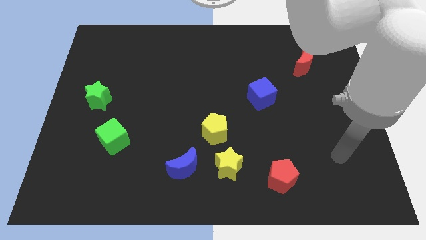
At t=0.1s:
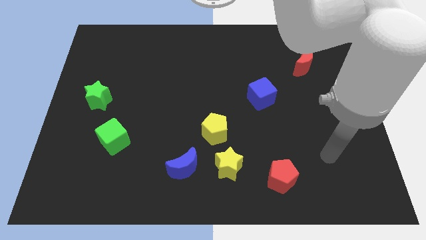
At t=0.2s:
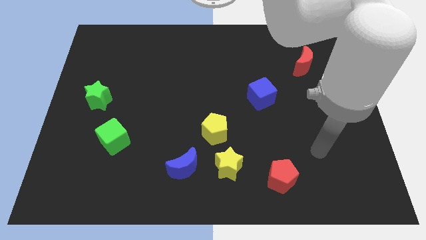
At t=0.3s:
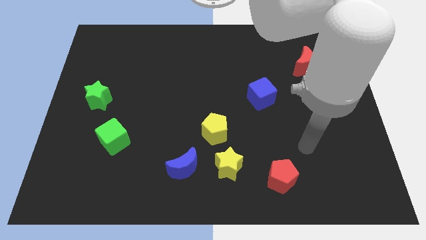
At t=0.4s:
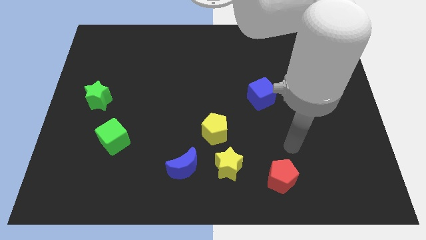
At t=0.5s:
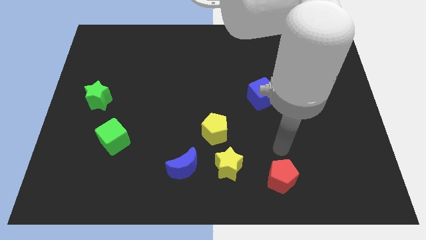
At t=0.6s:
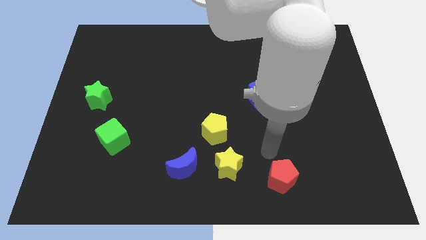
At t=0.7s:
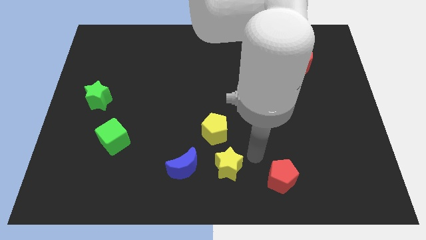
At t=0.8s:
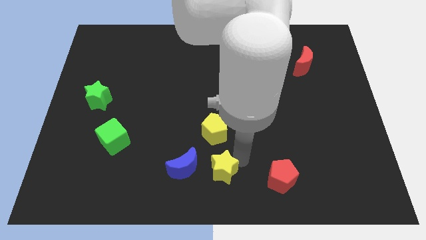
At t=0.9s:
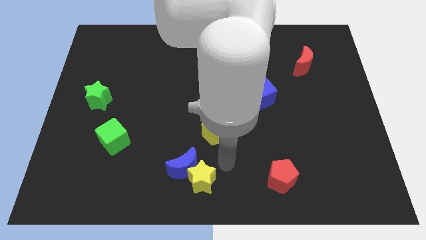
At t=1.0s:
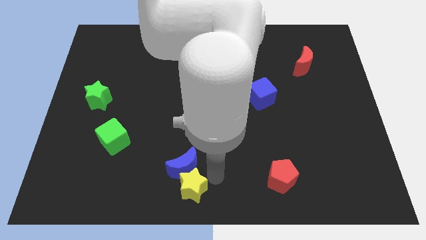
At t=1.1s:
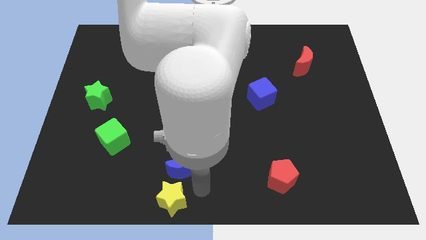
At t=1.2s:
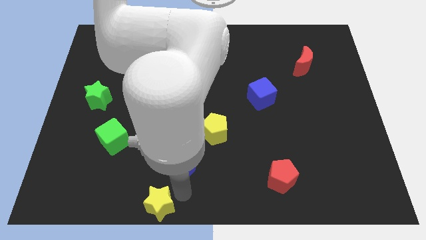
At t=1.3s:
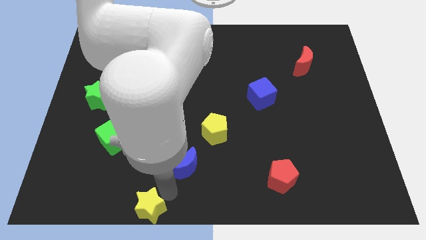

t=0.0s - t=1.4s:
separate the blue moon from the yellow star

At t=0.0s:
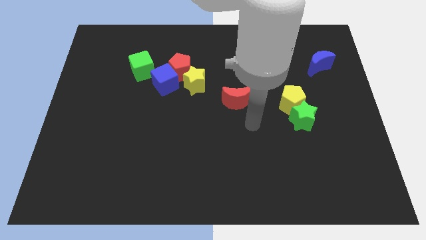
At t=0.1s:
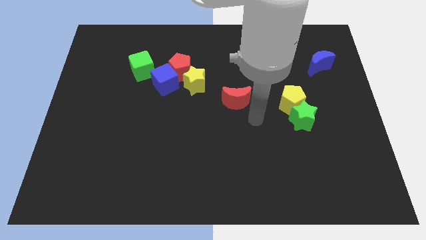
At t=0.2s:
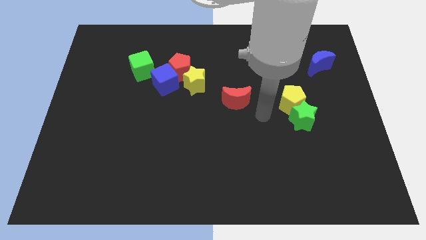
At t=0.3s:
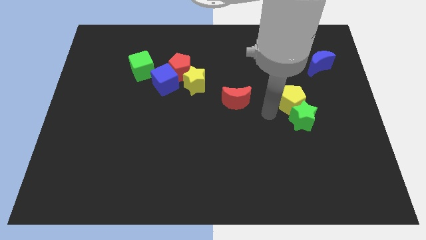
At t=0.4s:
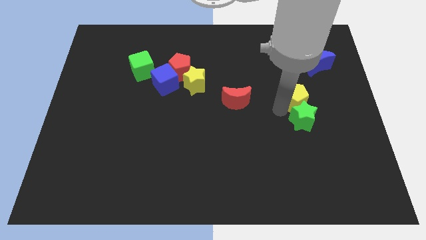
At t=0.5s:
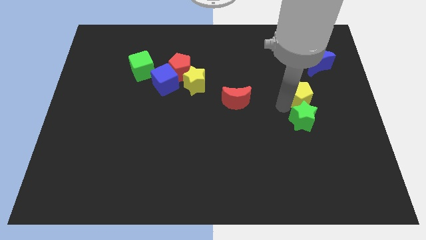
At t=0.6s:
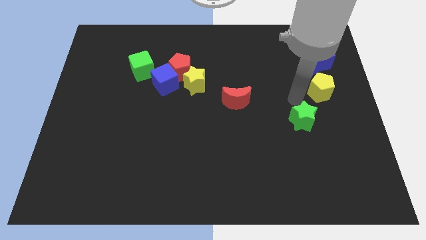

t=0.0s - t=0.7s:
pull the green star apart from the yellow pentagon

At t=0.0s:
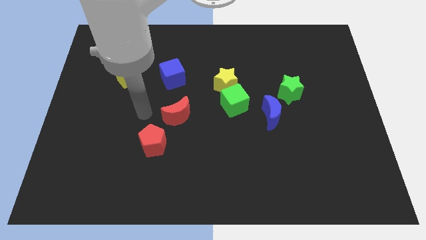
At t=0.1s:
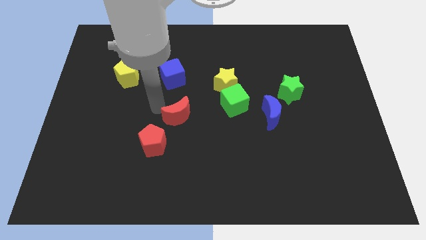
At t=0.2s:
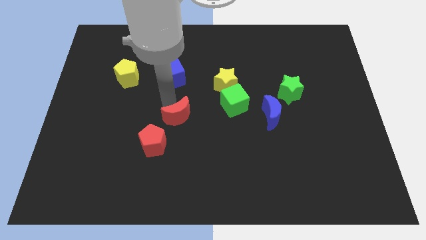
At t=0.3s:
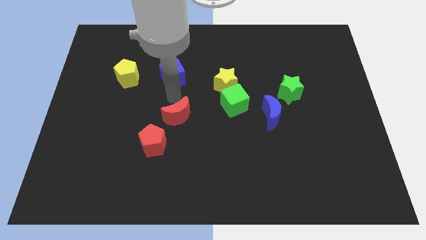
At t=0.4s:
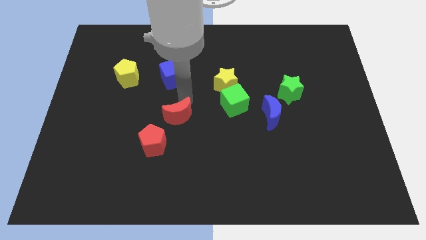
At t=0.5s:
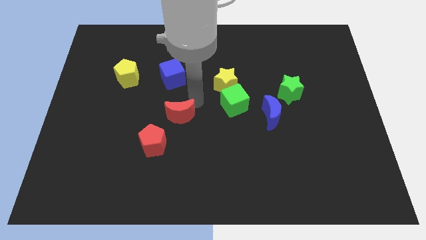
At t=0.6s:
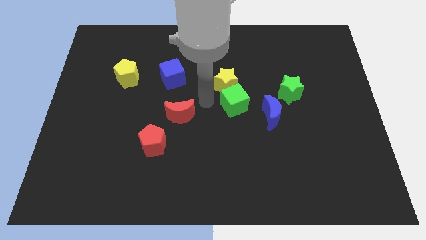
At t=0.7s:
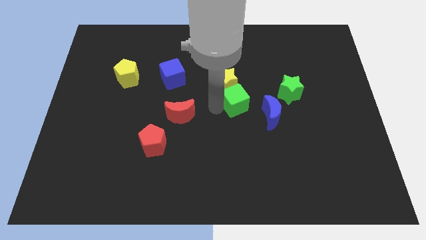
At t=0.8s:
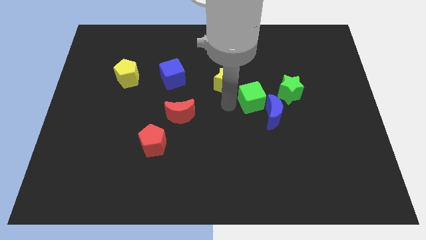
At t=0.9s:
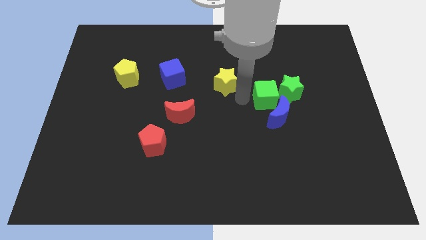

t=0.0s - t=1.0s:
pull the yellow star apart from the green cube

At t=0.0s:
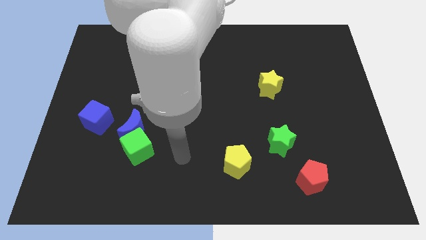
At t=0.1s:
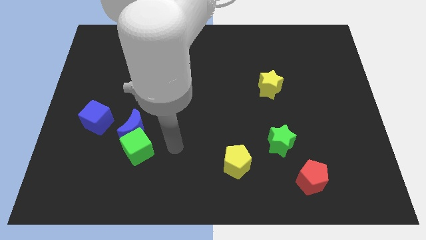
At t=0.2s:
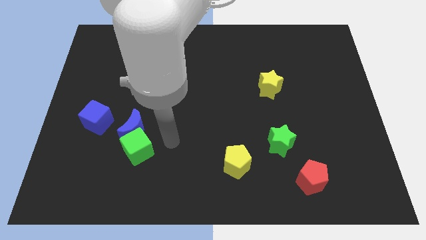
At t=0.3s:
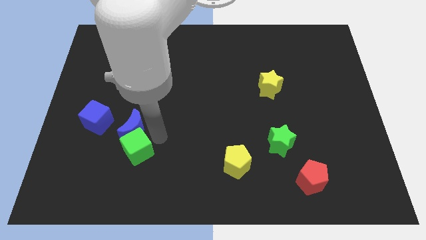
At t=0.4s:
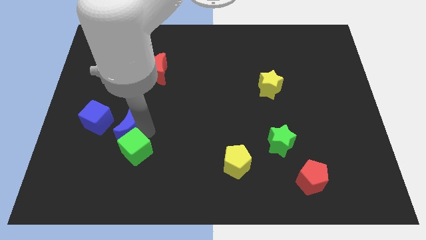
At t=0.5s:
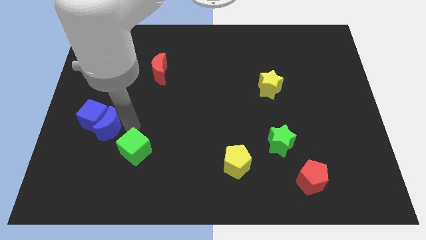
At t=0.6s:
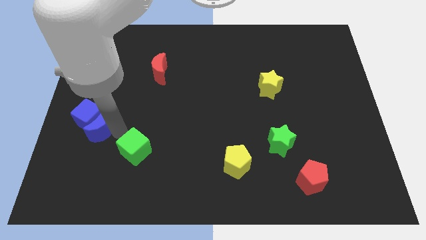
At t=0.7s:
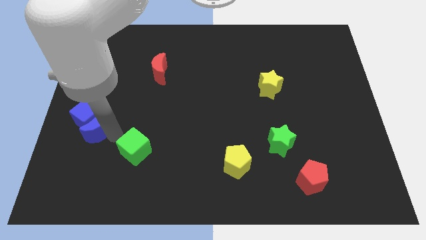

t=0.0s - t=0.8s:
move the green cube away from the blue moon

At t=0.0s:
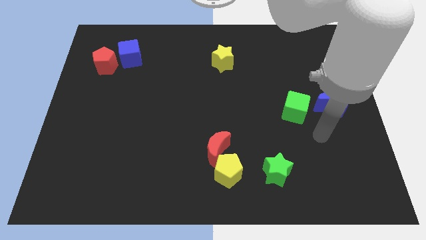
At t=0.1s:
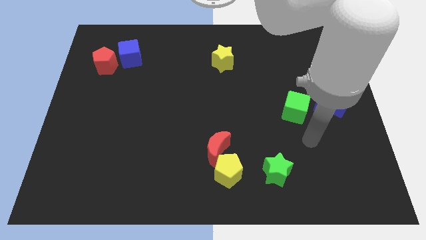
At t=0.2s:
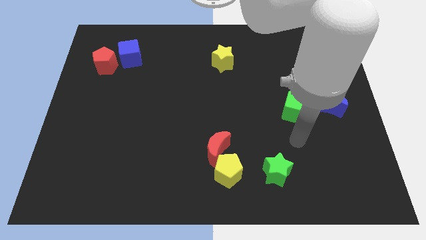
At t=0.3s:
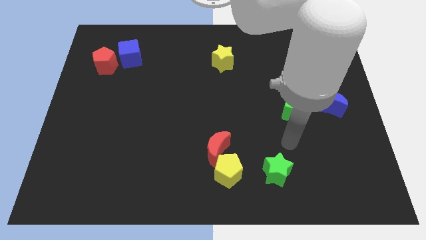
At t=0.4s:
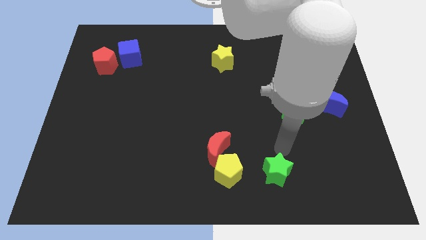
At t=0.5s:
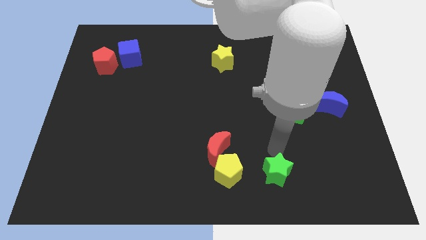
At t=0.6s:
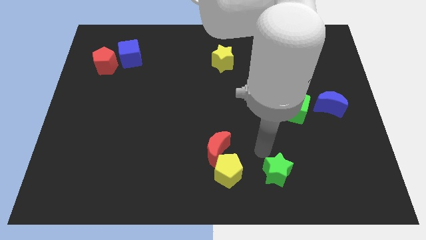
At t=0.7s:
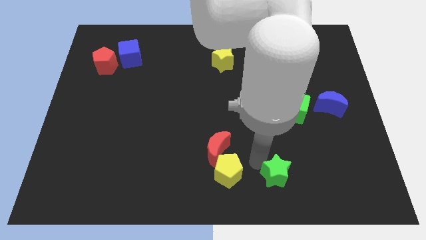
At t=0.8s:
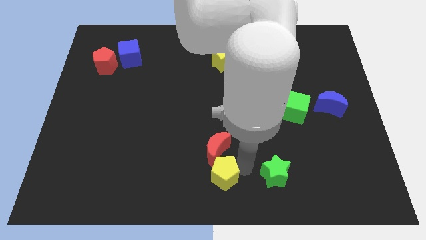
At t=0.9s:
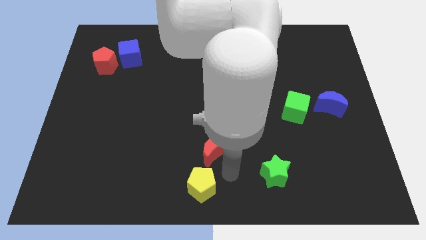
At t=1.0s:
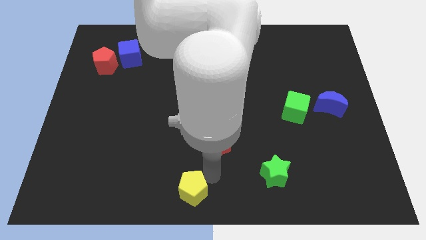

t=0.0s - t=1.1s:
separate the red moon from the yellow pentagon

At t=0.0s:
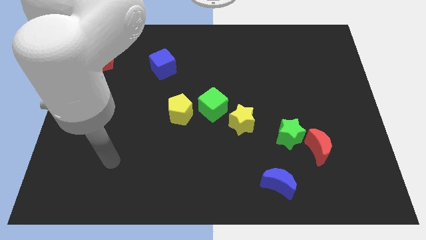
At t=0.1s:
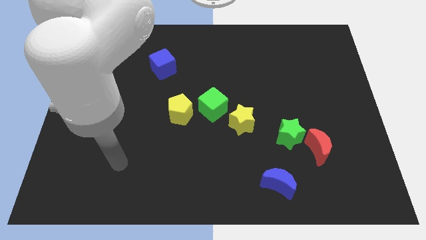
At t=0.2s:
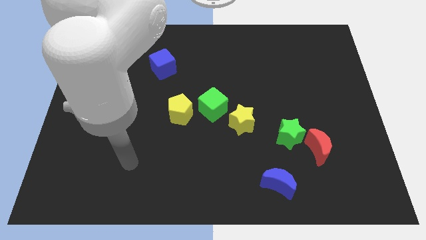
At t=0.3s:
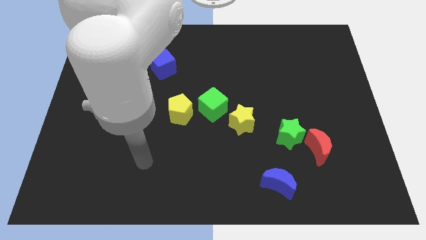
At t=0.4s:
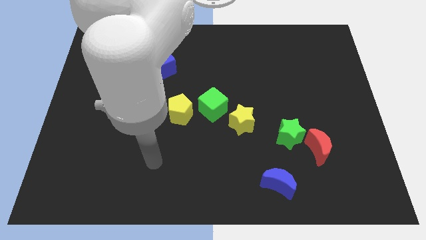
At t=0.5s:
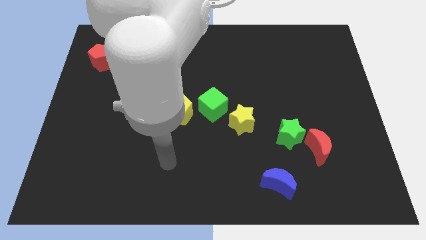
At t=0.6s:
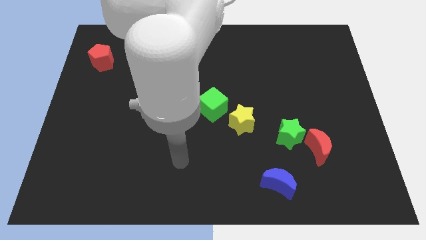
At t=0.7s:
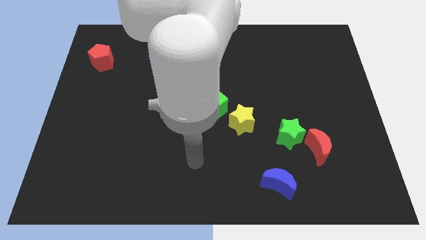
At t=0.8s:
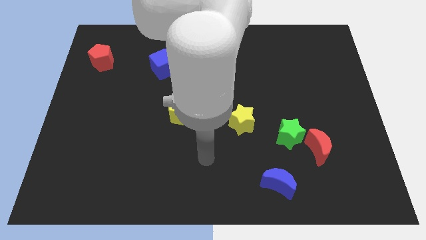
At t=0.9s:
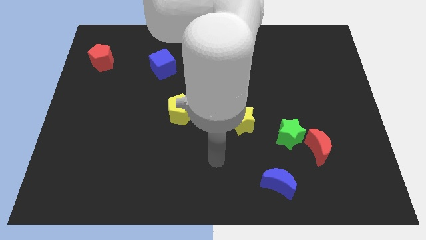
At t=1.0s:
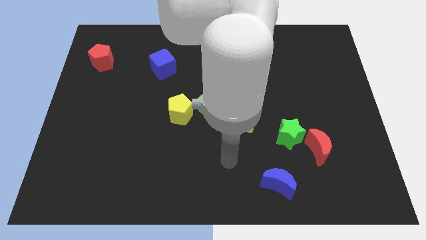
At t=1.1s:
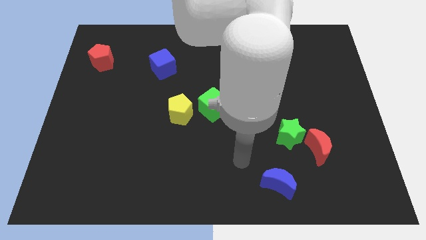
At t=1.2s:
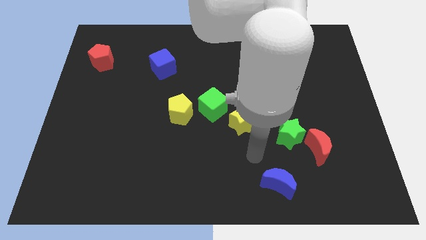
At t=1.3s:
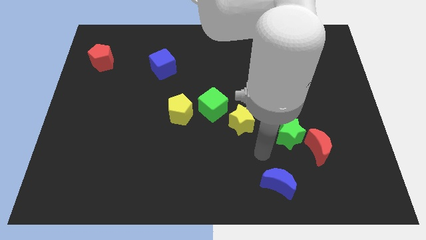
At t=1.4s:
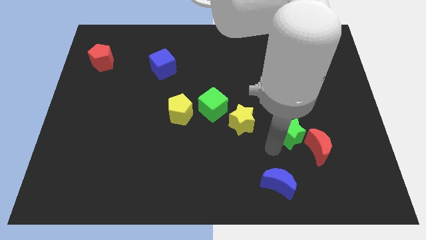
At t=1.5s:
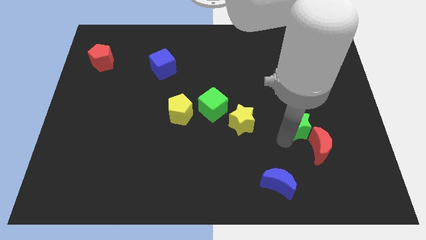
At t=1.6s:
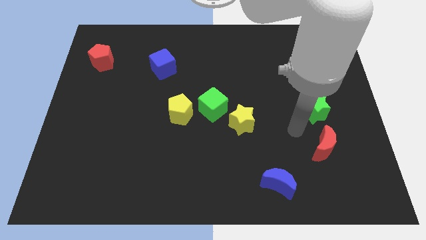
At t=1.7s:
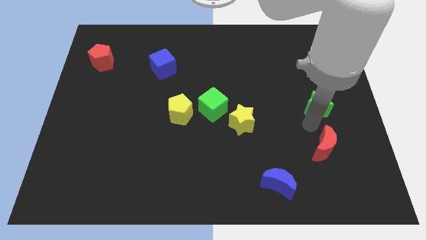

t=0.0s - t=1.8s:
pull the red moon apart from the green star

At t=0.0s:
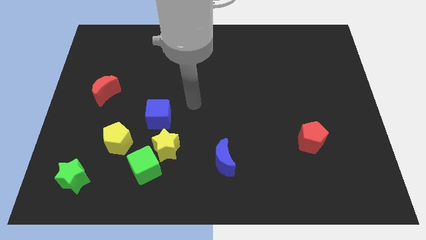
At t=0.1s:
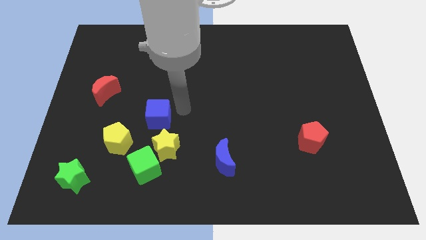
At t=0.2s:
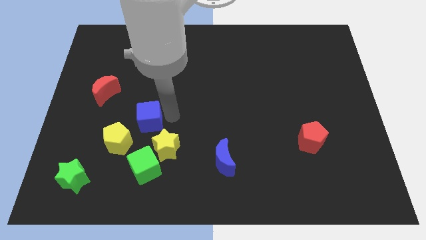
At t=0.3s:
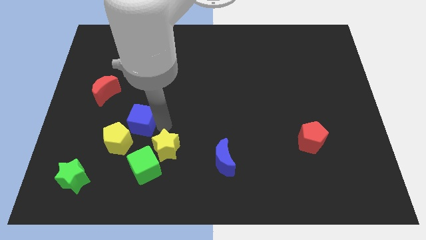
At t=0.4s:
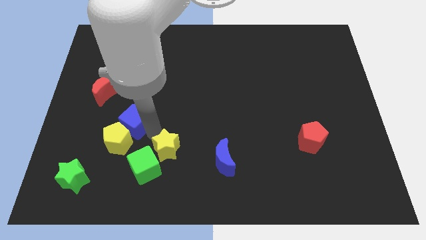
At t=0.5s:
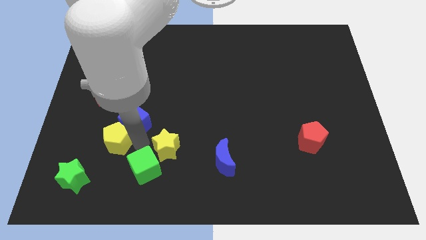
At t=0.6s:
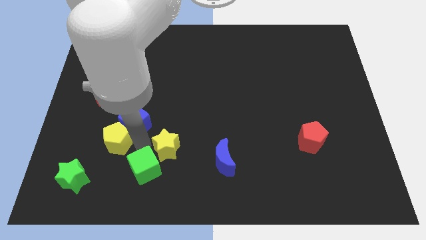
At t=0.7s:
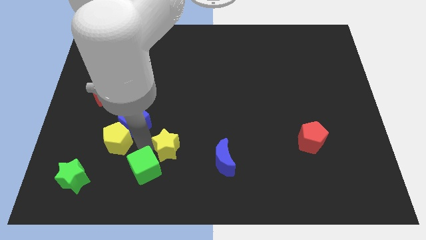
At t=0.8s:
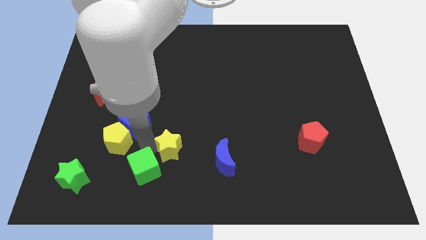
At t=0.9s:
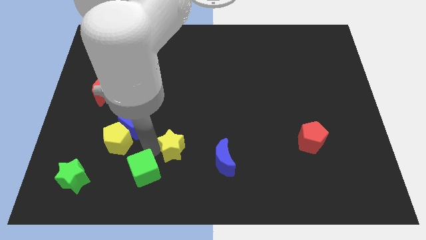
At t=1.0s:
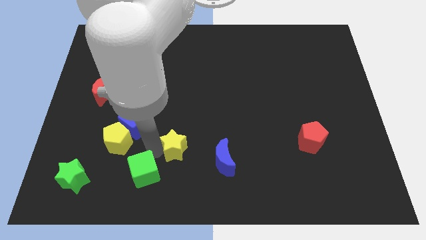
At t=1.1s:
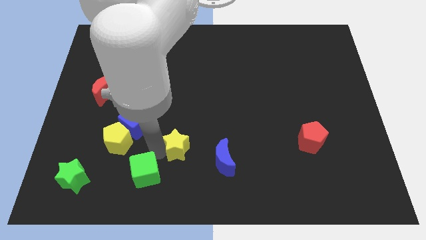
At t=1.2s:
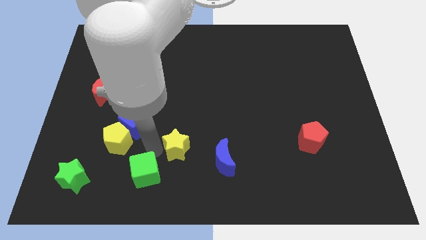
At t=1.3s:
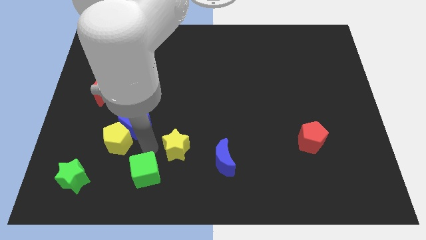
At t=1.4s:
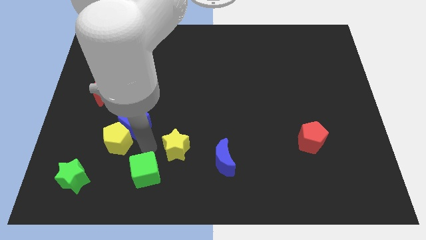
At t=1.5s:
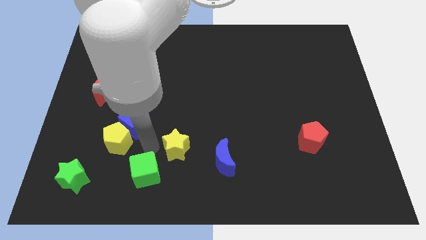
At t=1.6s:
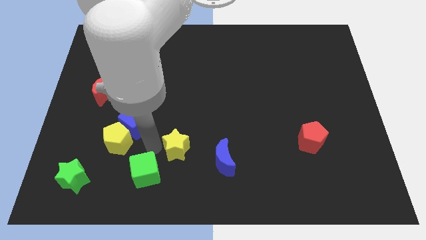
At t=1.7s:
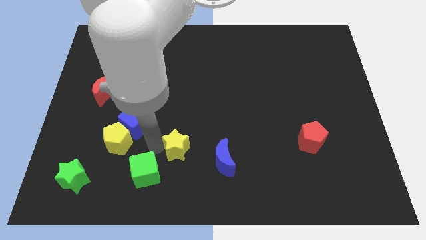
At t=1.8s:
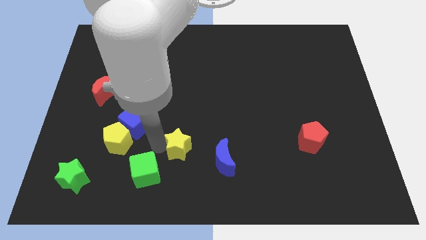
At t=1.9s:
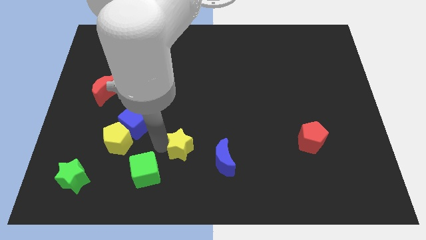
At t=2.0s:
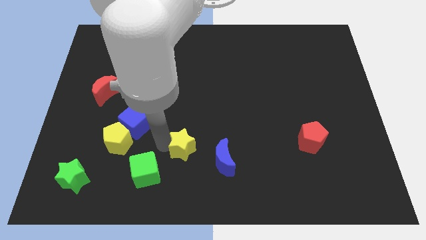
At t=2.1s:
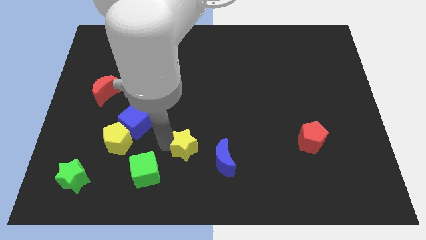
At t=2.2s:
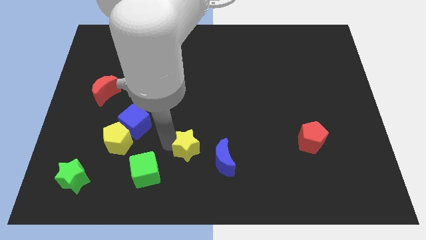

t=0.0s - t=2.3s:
separate the yellow star from the green cube and blue cube
